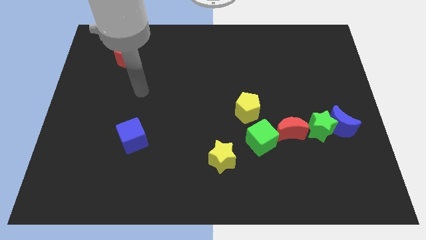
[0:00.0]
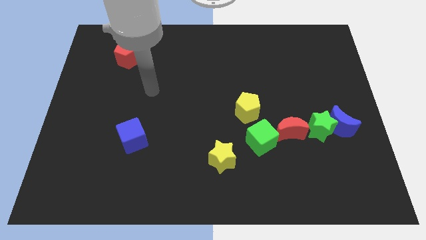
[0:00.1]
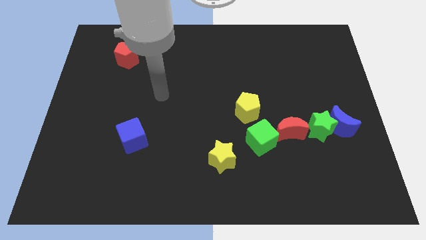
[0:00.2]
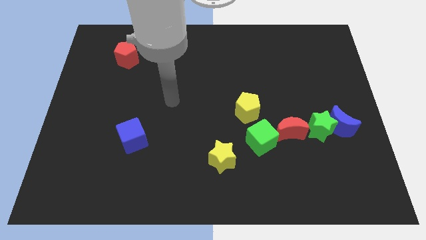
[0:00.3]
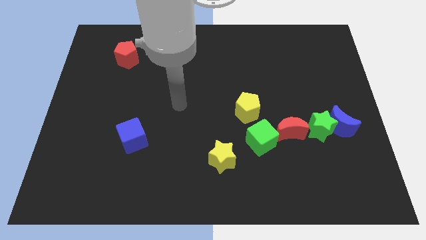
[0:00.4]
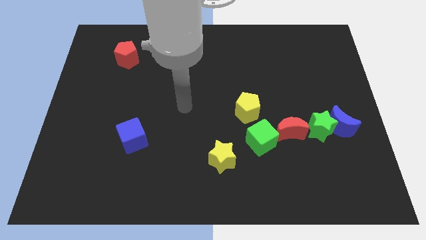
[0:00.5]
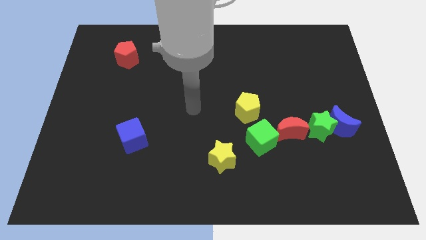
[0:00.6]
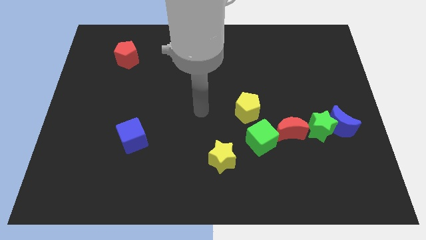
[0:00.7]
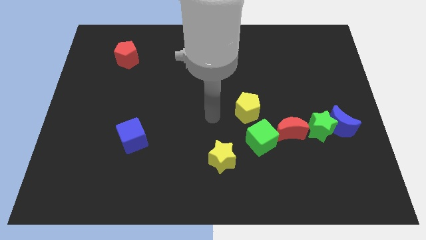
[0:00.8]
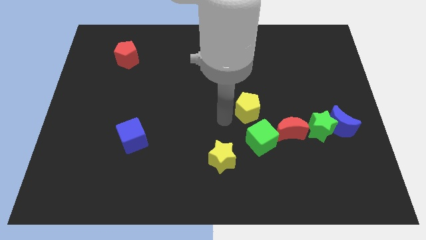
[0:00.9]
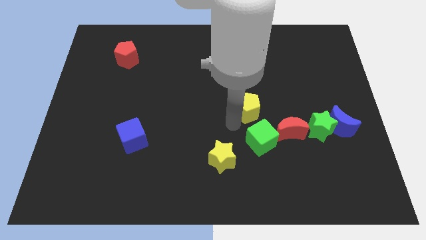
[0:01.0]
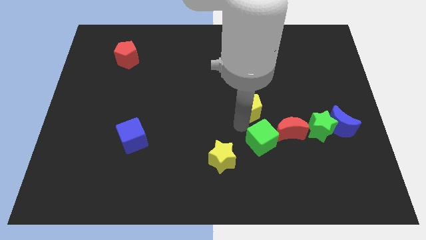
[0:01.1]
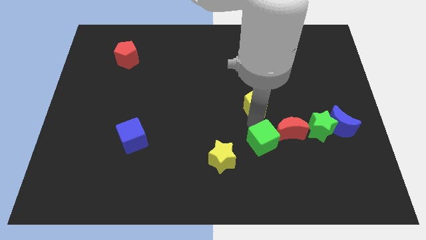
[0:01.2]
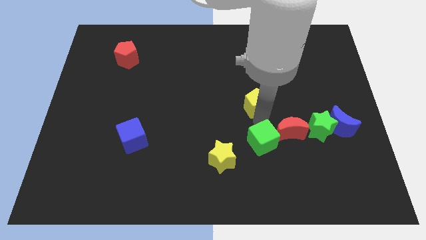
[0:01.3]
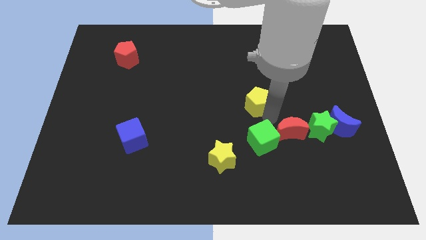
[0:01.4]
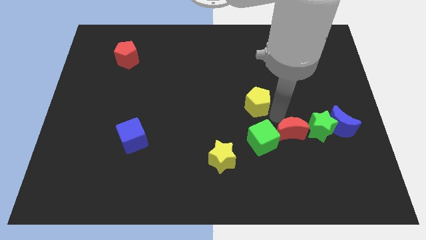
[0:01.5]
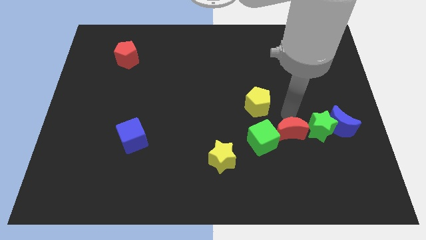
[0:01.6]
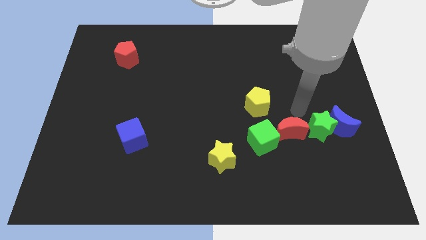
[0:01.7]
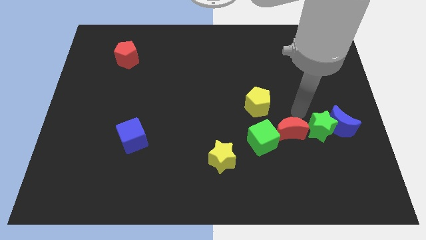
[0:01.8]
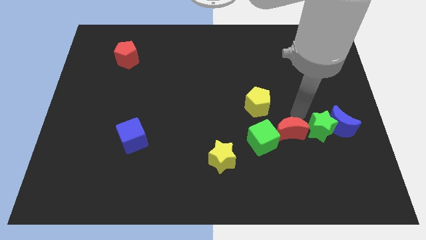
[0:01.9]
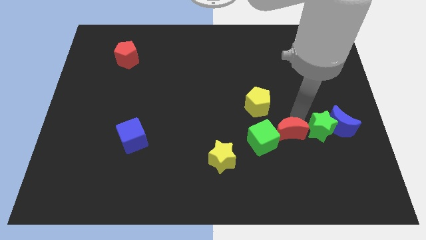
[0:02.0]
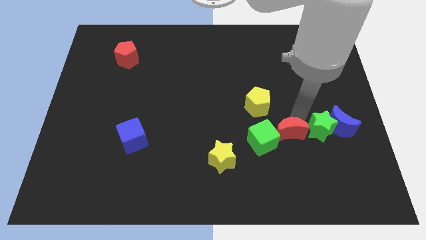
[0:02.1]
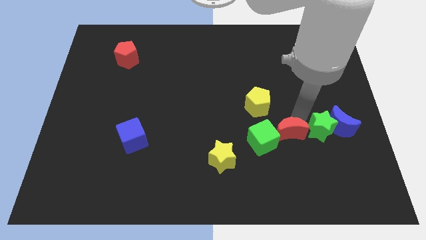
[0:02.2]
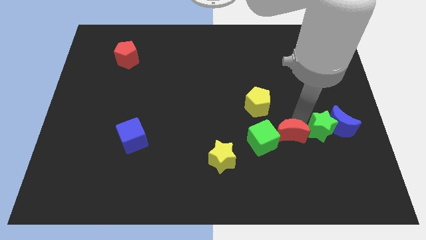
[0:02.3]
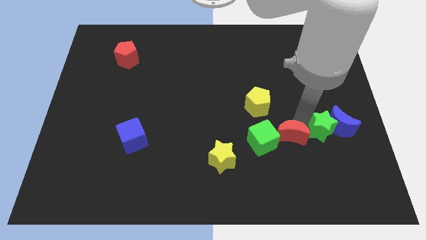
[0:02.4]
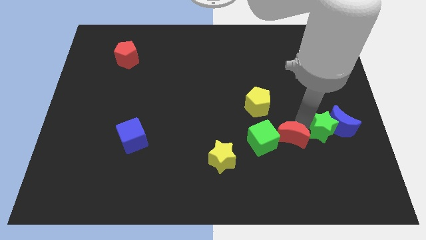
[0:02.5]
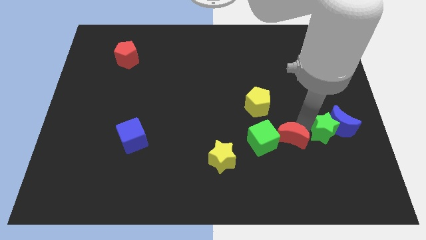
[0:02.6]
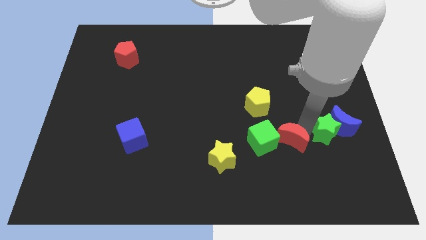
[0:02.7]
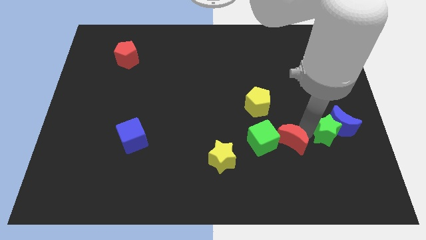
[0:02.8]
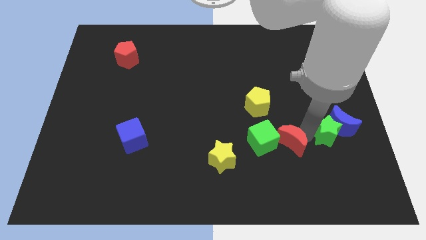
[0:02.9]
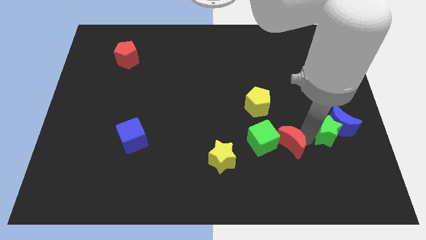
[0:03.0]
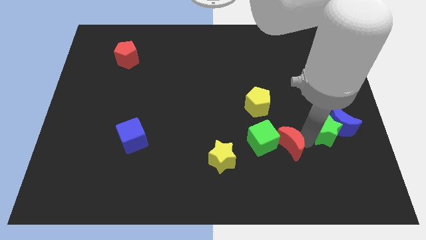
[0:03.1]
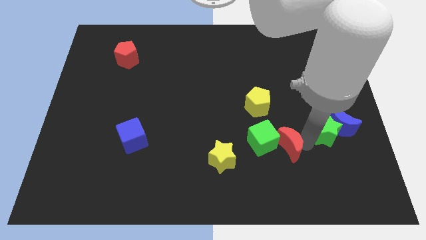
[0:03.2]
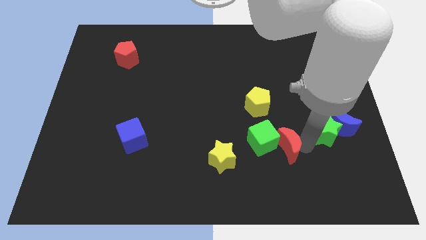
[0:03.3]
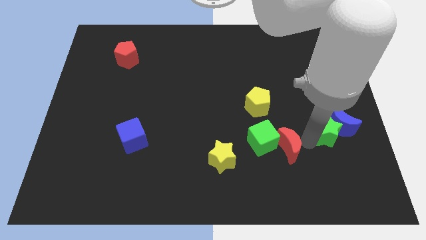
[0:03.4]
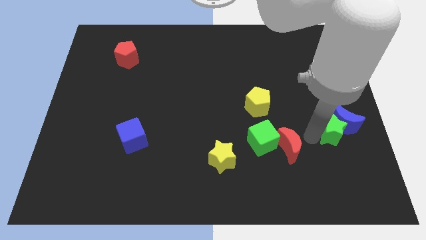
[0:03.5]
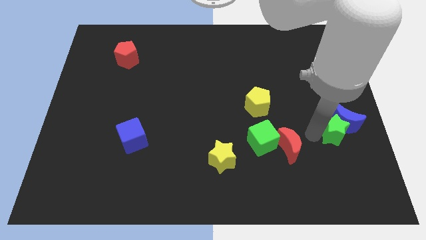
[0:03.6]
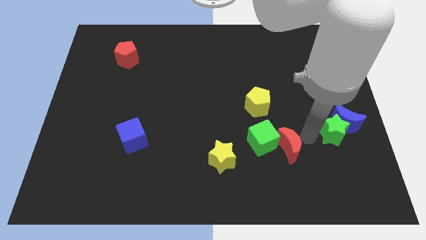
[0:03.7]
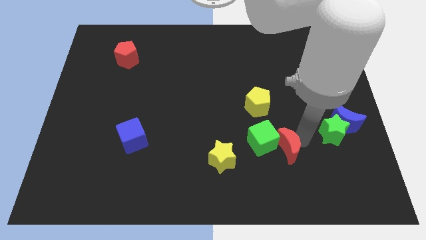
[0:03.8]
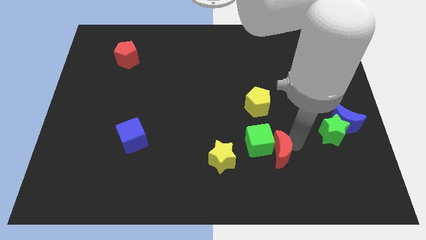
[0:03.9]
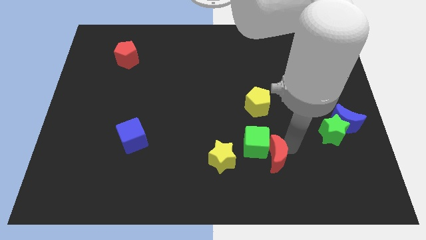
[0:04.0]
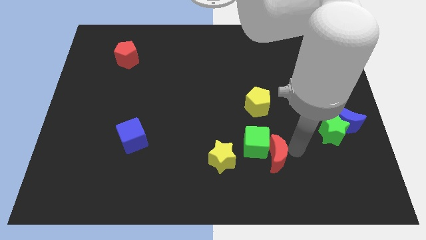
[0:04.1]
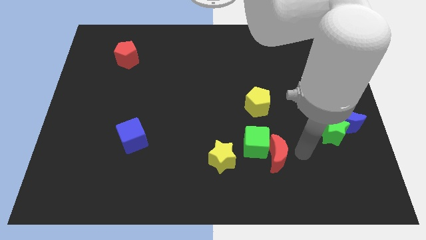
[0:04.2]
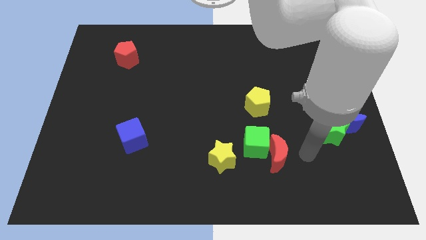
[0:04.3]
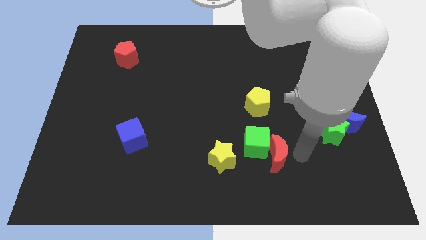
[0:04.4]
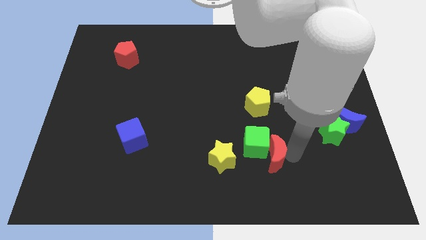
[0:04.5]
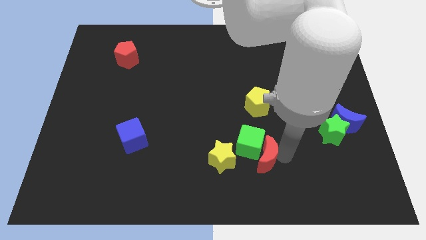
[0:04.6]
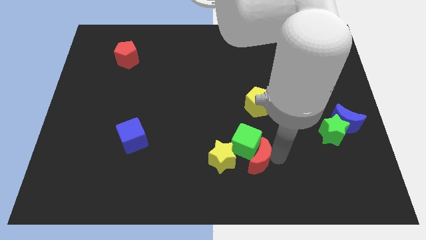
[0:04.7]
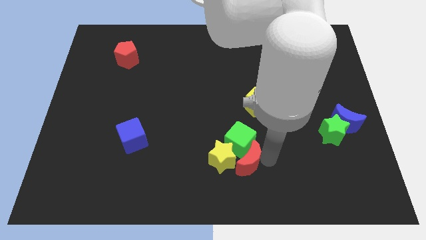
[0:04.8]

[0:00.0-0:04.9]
slide the red moon towards the yellow star

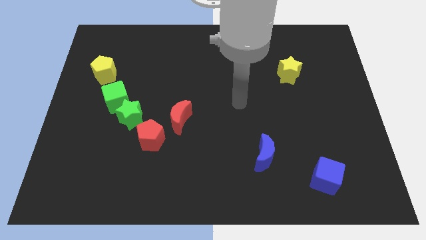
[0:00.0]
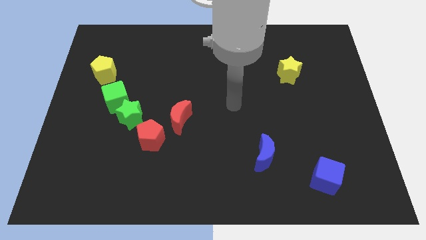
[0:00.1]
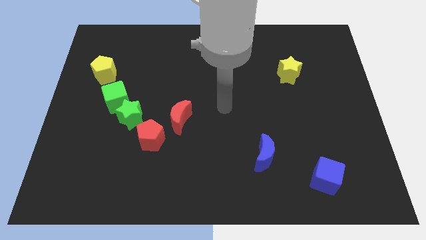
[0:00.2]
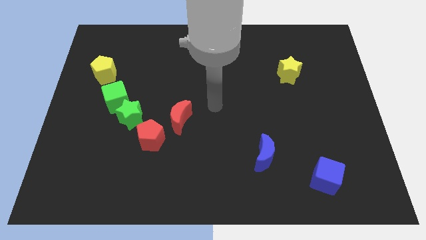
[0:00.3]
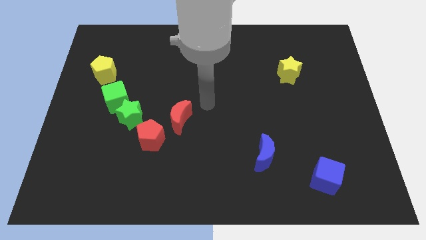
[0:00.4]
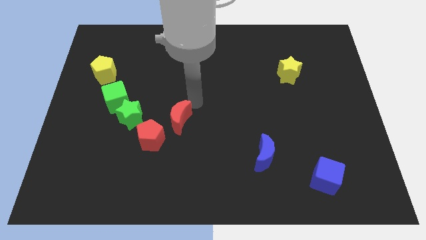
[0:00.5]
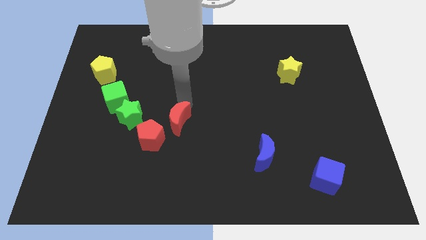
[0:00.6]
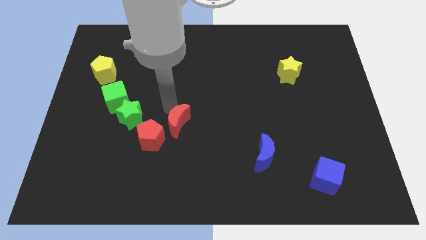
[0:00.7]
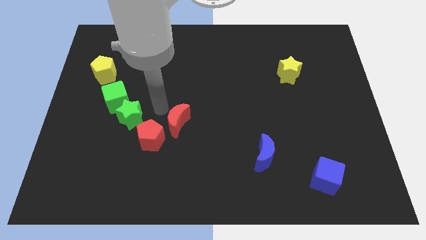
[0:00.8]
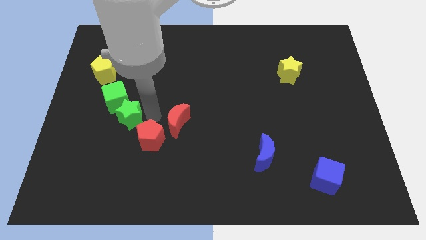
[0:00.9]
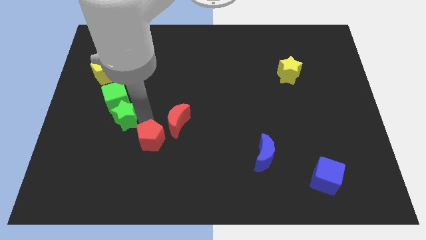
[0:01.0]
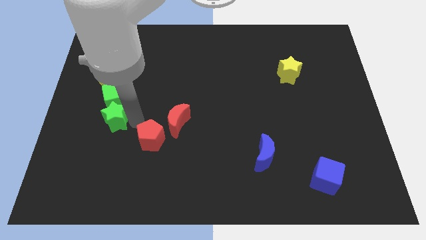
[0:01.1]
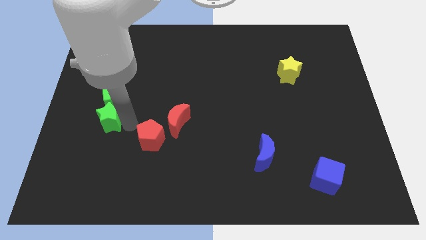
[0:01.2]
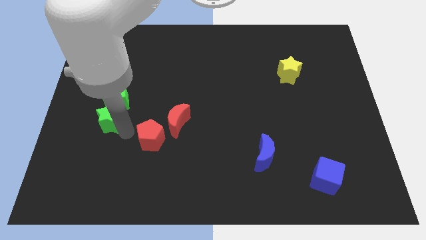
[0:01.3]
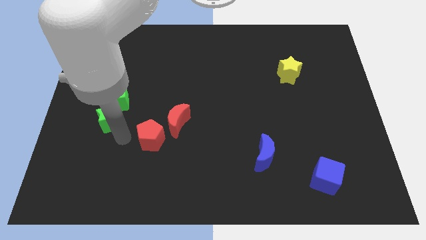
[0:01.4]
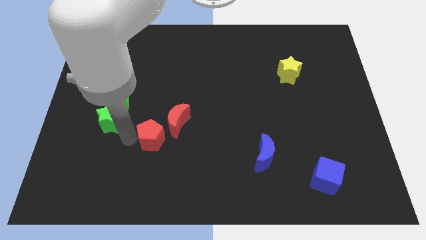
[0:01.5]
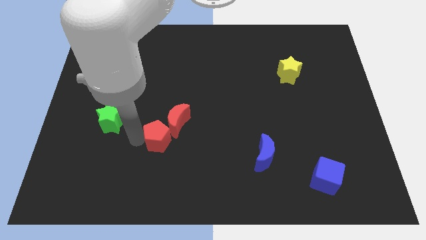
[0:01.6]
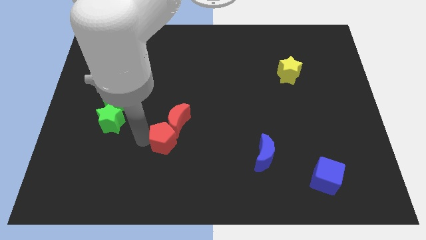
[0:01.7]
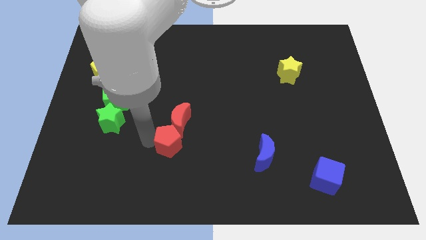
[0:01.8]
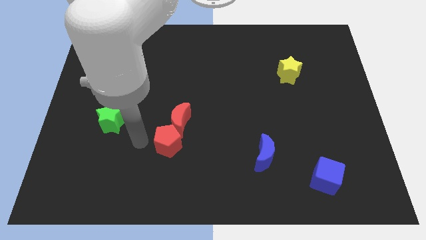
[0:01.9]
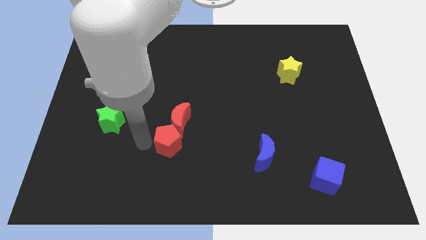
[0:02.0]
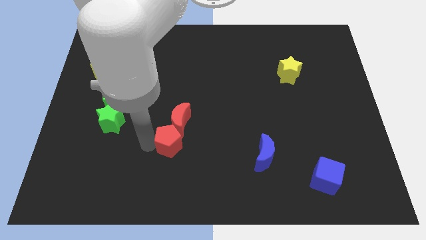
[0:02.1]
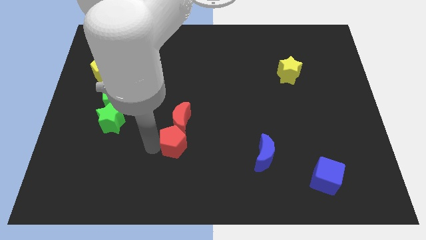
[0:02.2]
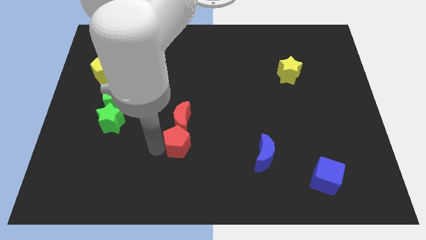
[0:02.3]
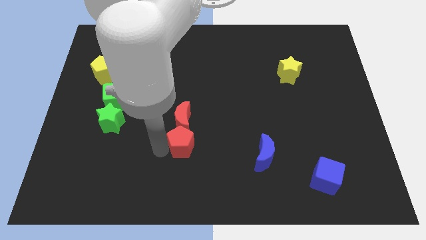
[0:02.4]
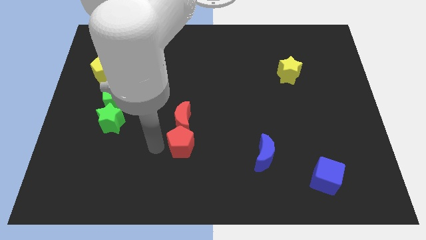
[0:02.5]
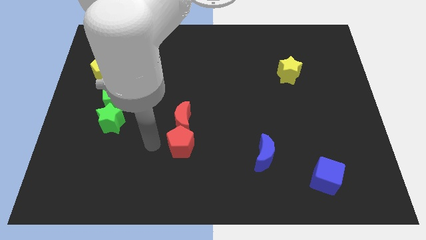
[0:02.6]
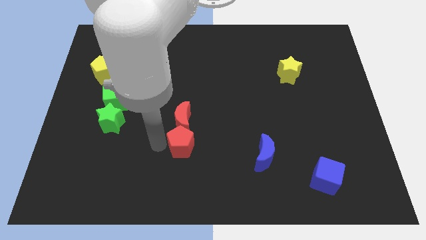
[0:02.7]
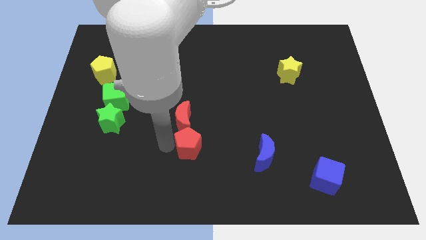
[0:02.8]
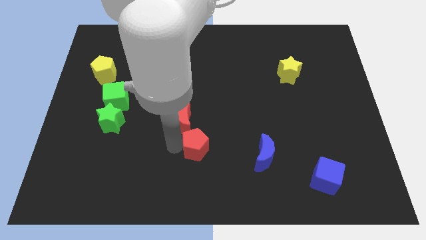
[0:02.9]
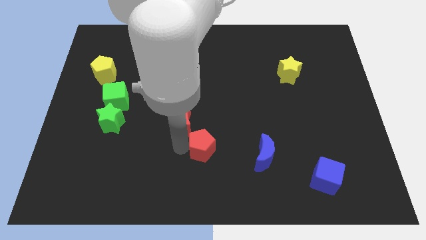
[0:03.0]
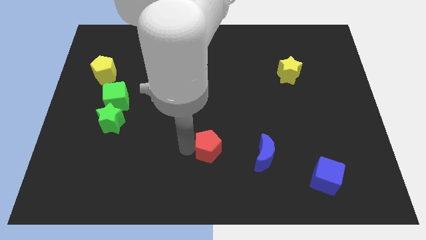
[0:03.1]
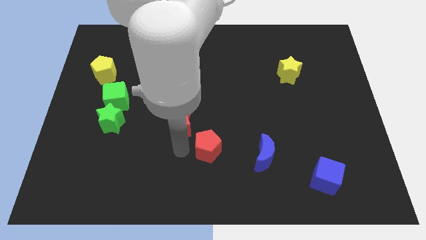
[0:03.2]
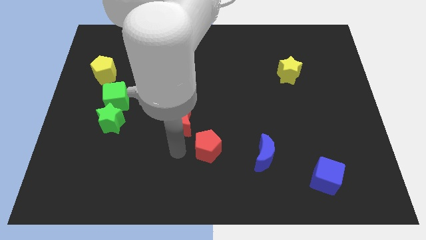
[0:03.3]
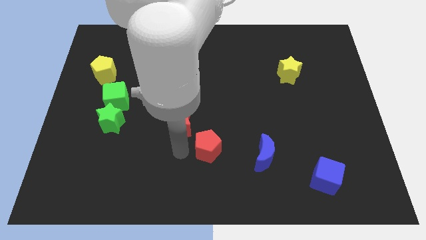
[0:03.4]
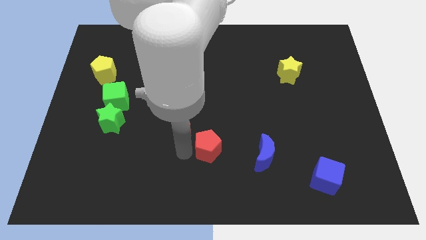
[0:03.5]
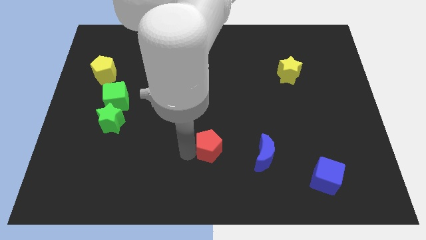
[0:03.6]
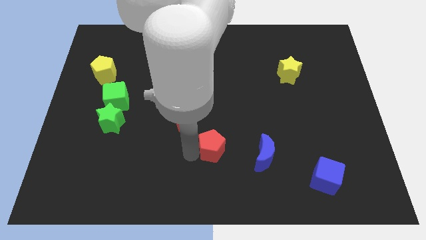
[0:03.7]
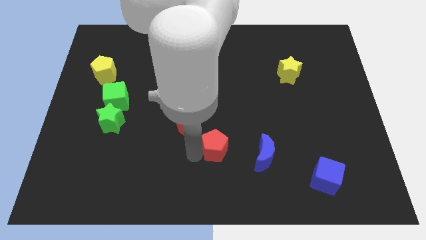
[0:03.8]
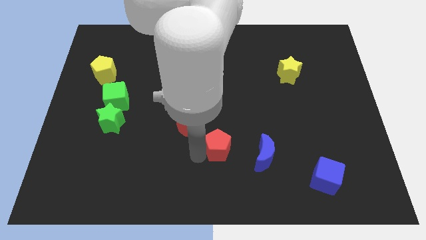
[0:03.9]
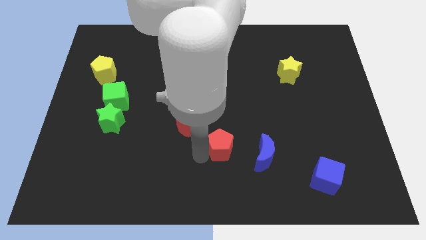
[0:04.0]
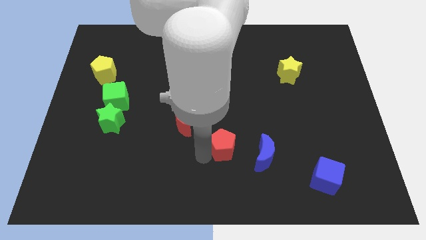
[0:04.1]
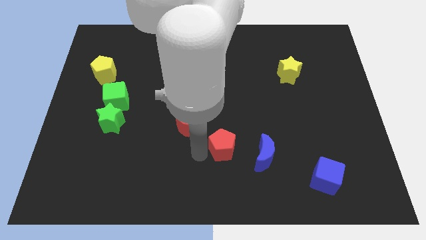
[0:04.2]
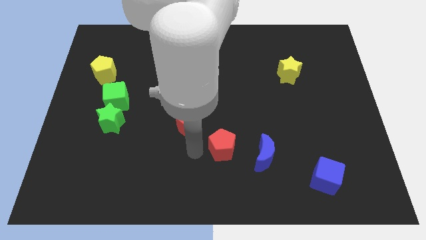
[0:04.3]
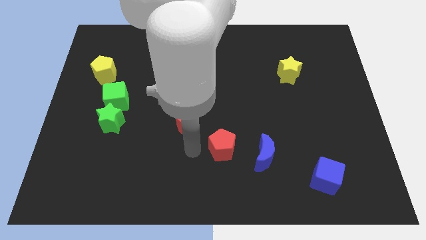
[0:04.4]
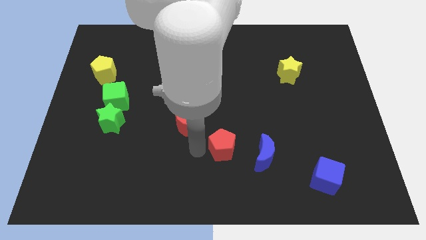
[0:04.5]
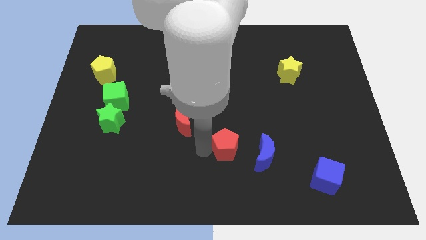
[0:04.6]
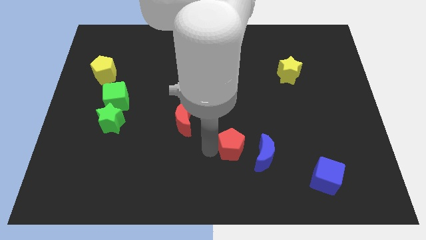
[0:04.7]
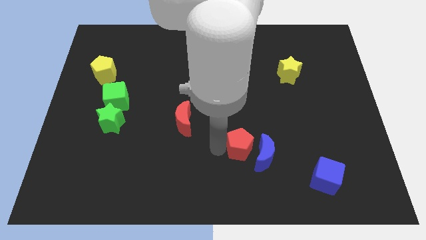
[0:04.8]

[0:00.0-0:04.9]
push the red pentagon to the blue moon
